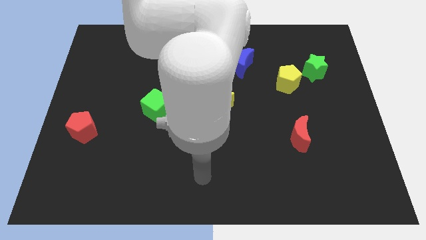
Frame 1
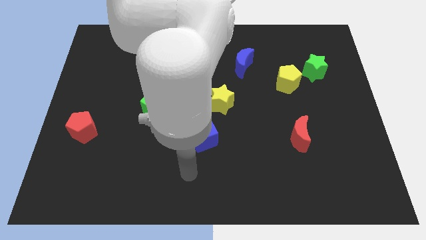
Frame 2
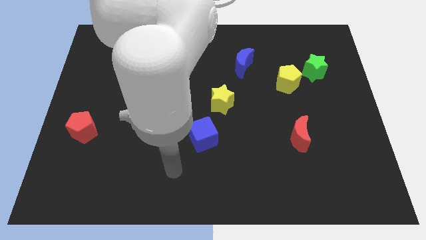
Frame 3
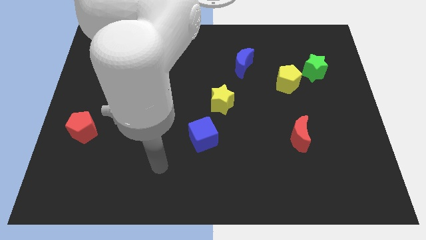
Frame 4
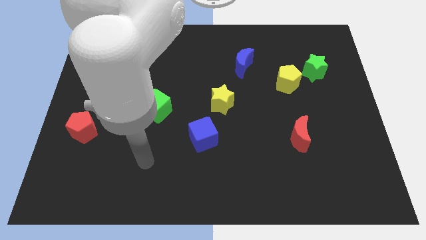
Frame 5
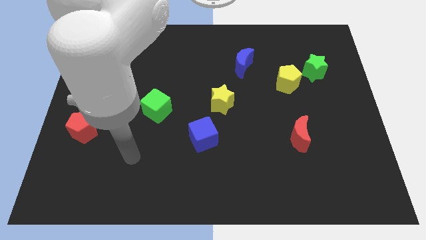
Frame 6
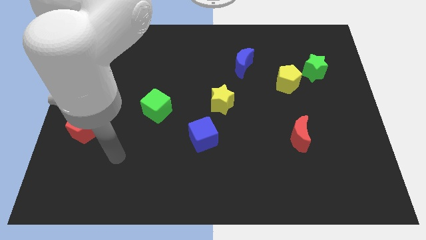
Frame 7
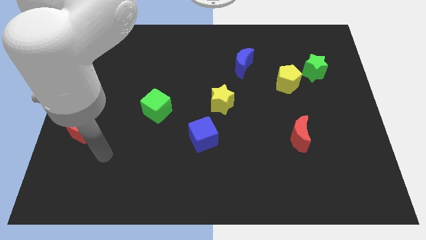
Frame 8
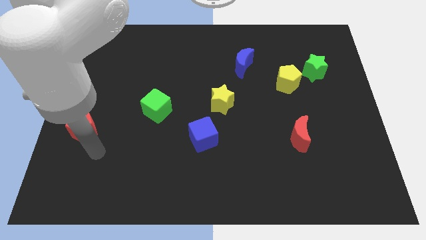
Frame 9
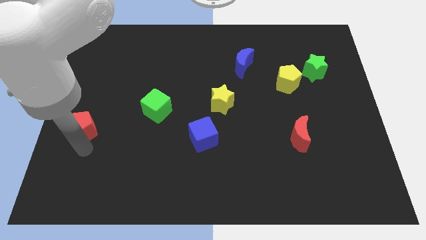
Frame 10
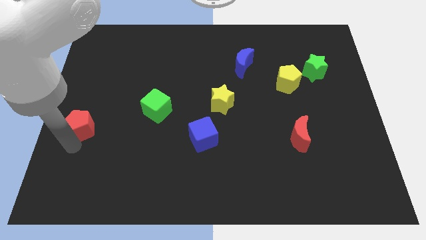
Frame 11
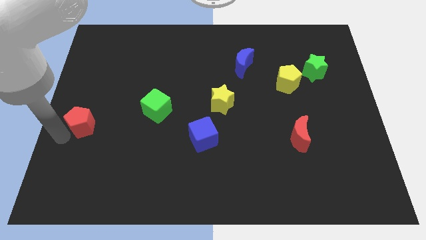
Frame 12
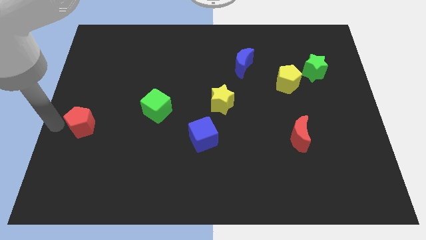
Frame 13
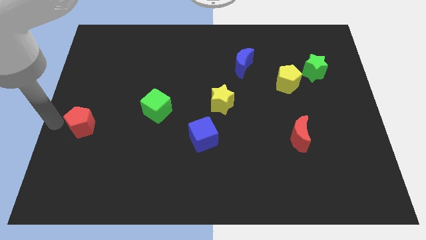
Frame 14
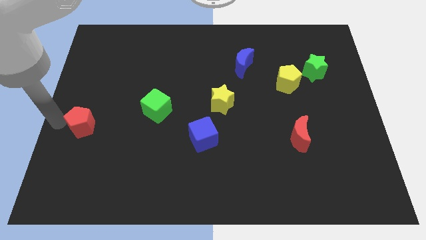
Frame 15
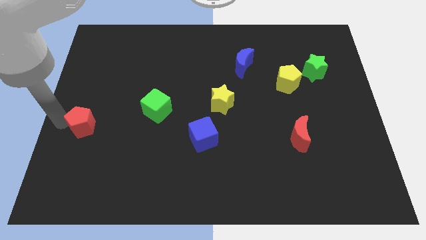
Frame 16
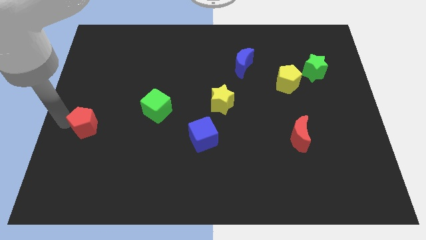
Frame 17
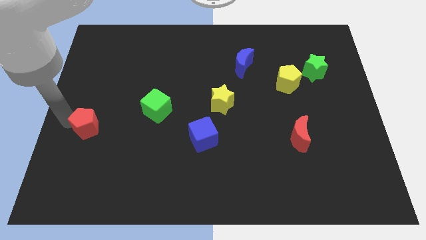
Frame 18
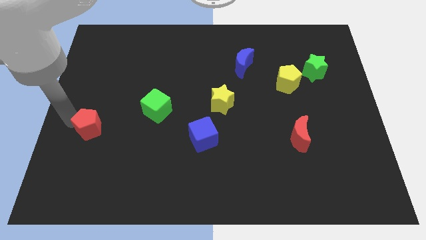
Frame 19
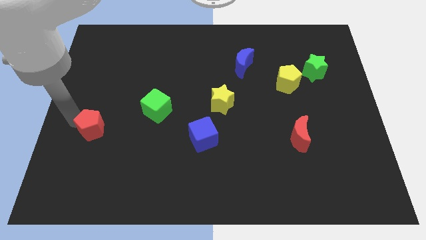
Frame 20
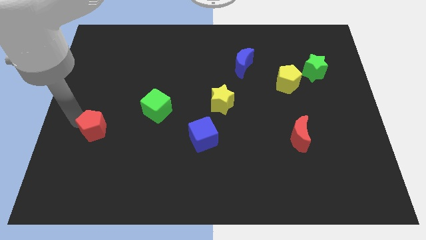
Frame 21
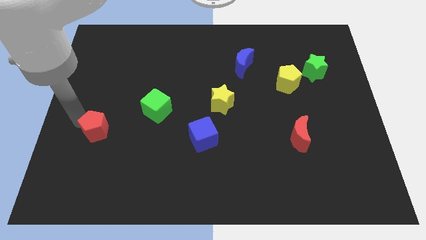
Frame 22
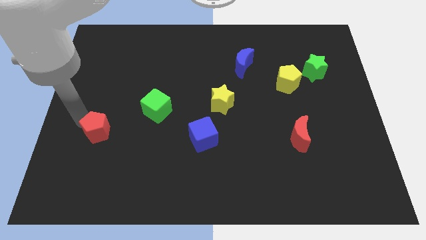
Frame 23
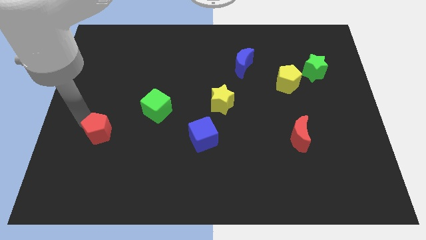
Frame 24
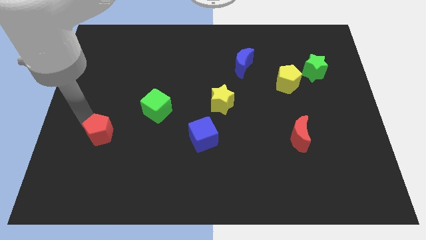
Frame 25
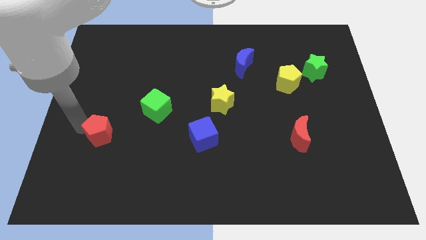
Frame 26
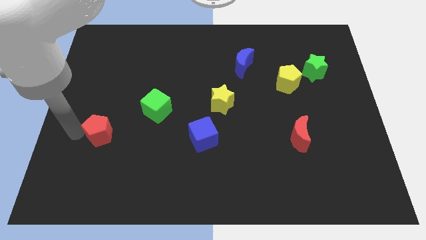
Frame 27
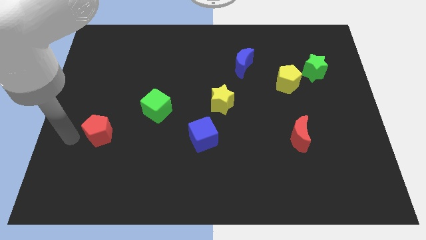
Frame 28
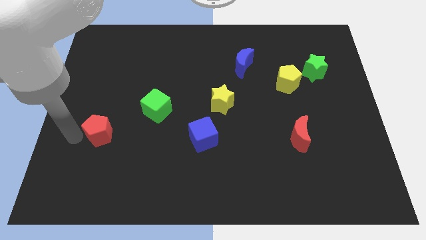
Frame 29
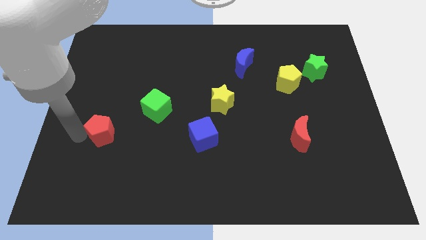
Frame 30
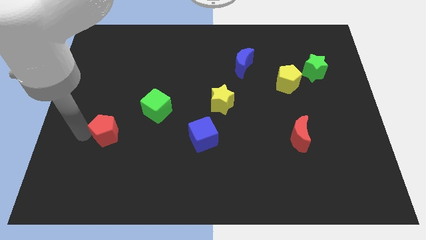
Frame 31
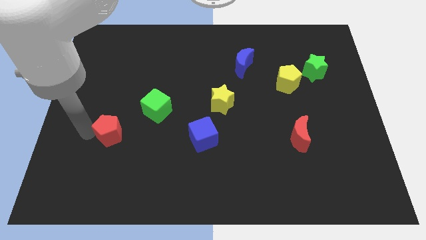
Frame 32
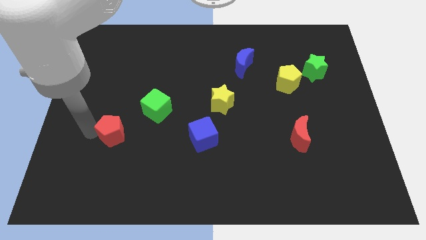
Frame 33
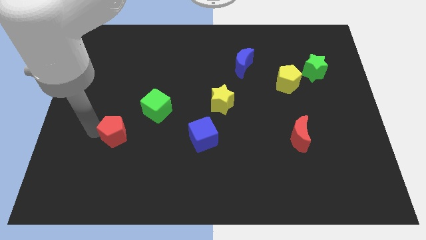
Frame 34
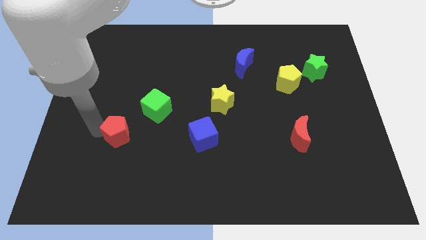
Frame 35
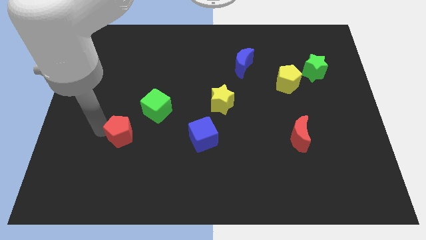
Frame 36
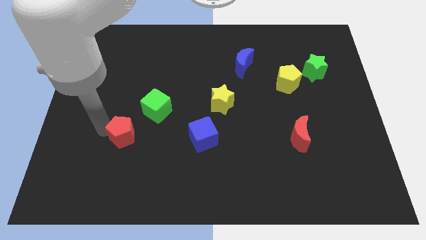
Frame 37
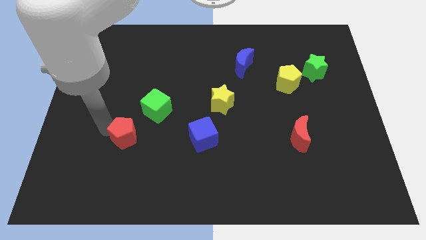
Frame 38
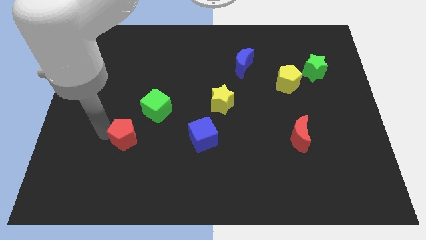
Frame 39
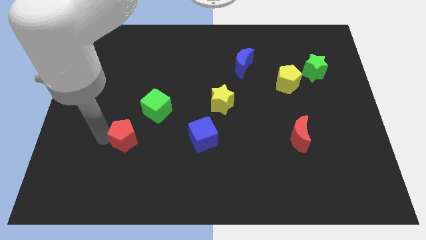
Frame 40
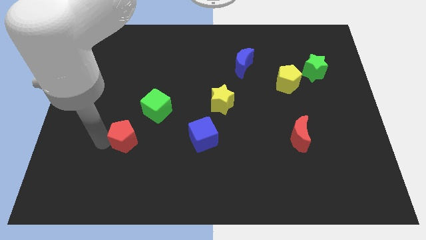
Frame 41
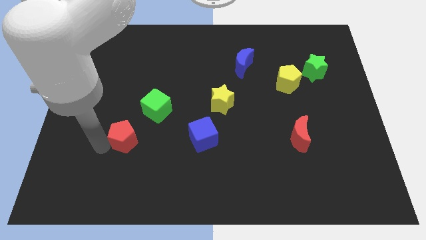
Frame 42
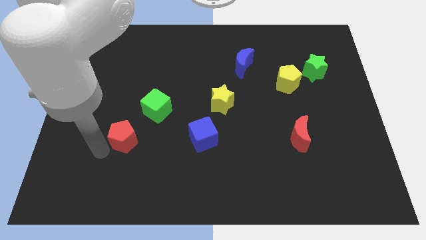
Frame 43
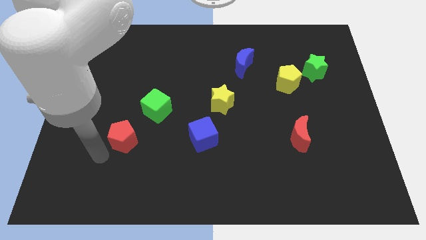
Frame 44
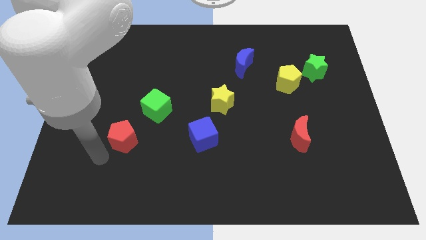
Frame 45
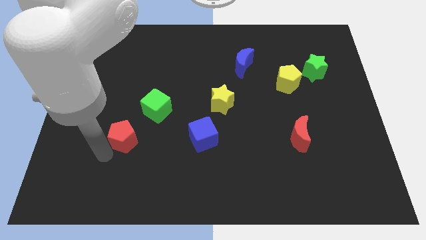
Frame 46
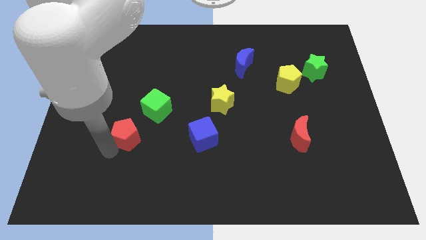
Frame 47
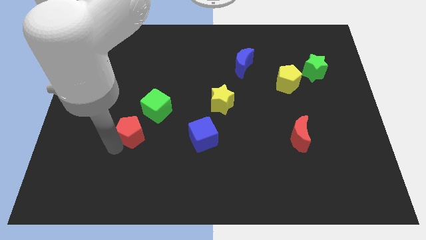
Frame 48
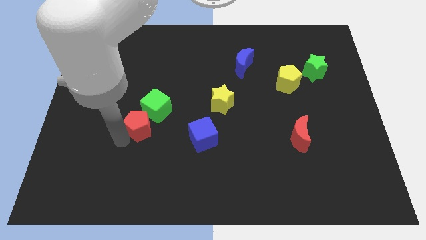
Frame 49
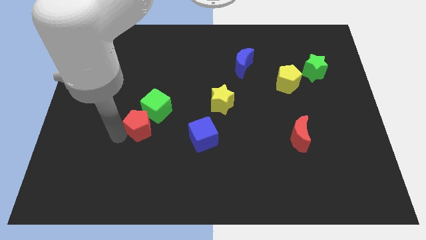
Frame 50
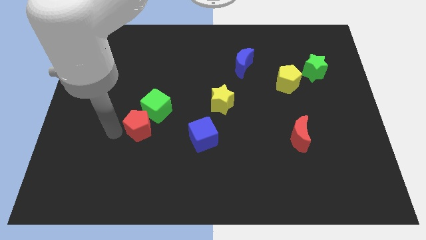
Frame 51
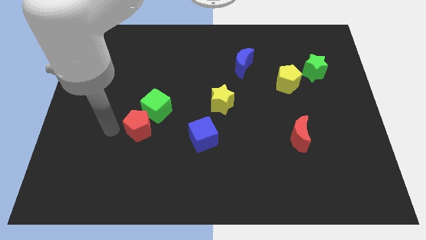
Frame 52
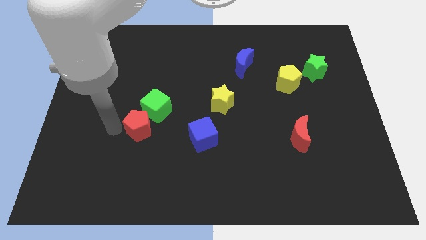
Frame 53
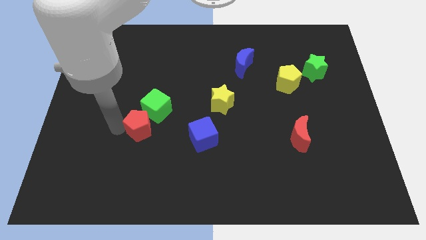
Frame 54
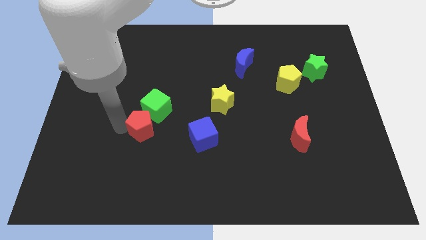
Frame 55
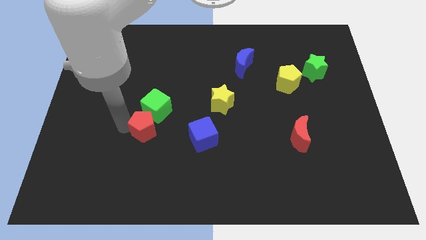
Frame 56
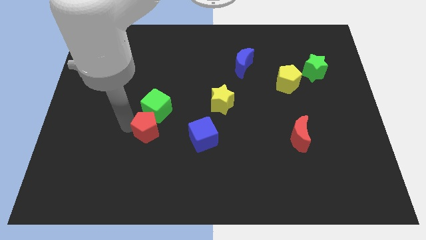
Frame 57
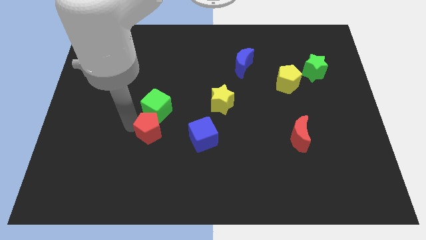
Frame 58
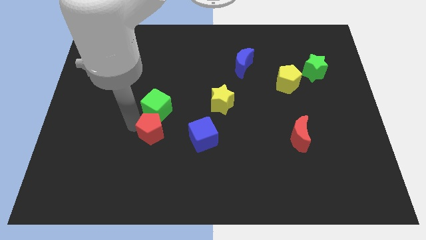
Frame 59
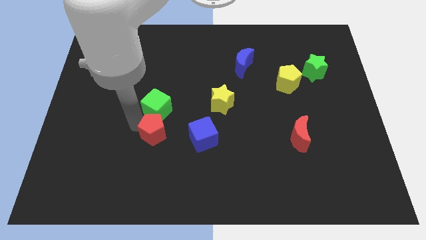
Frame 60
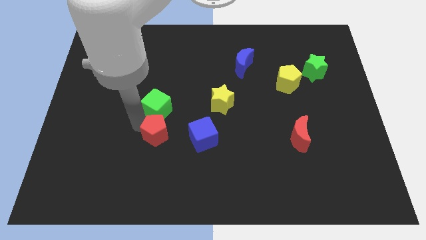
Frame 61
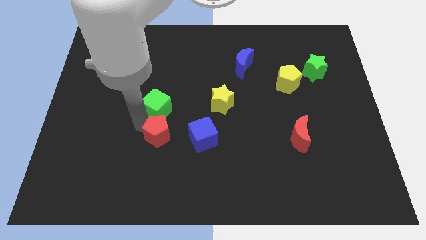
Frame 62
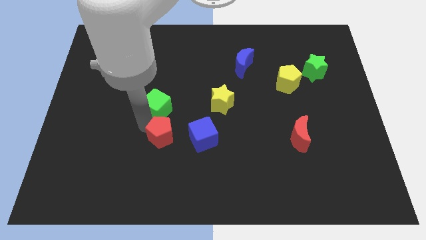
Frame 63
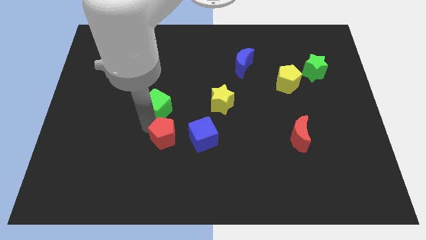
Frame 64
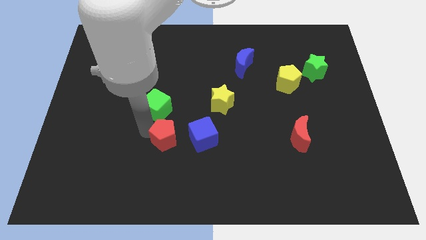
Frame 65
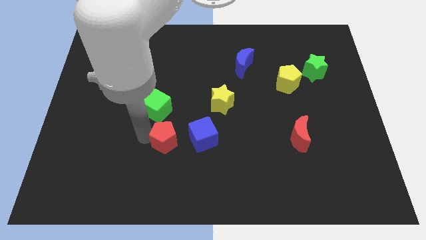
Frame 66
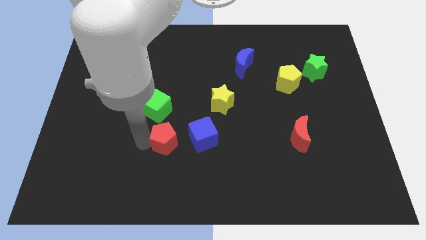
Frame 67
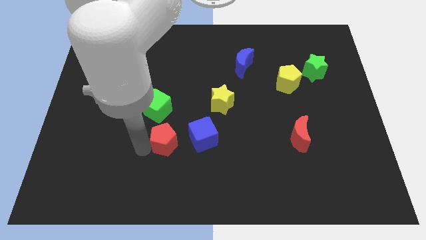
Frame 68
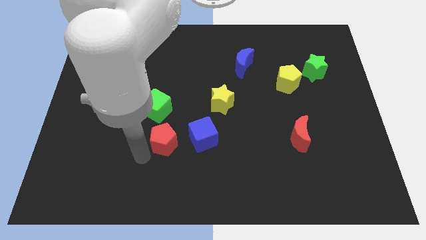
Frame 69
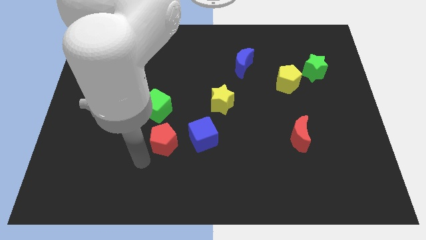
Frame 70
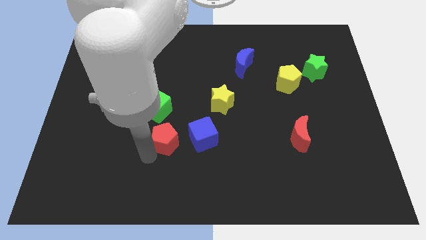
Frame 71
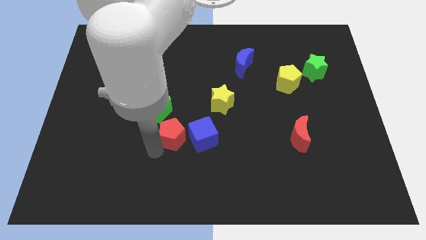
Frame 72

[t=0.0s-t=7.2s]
move the red pentagon right

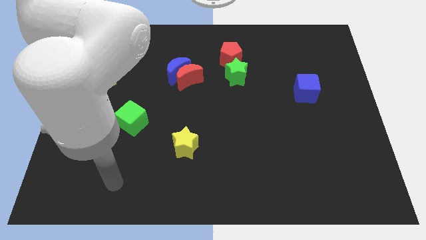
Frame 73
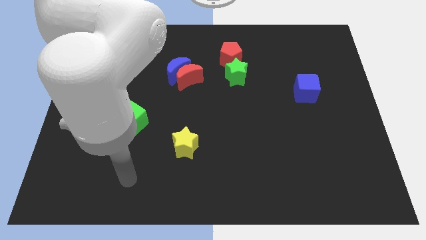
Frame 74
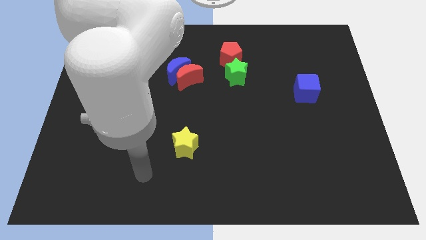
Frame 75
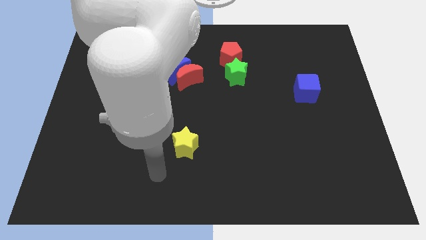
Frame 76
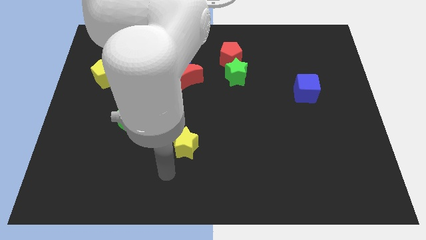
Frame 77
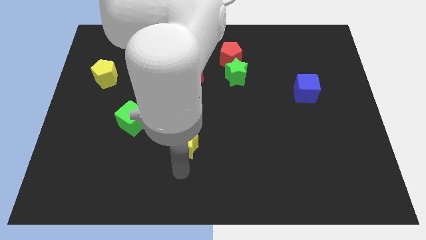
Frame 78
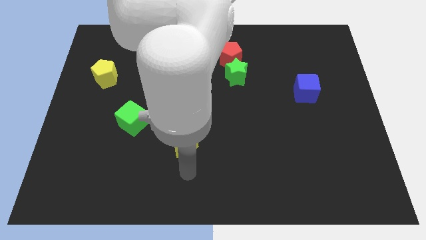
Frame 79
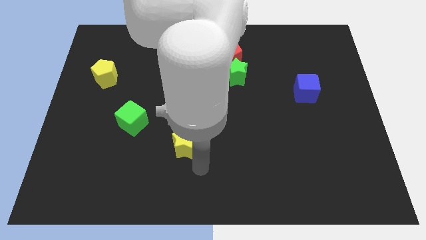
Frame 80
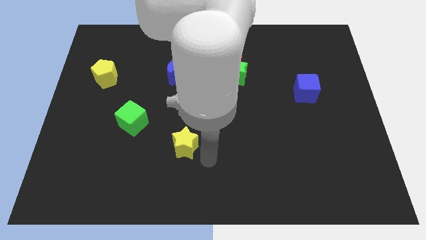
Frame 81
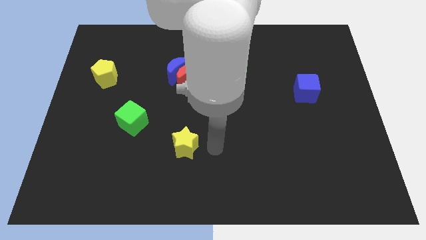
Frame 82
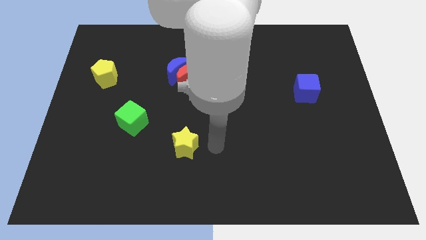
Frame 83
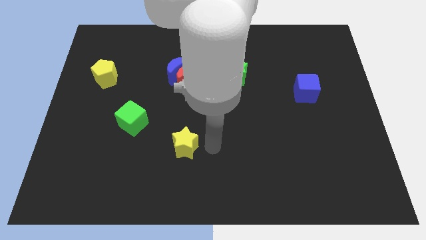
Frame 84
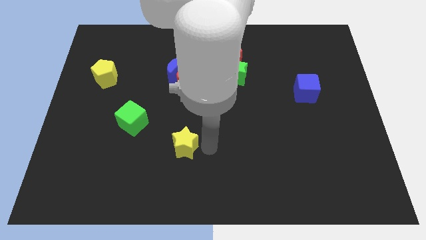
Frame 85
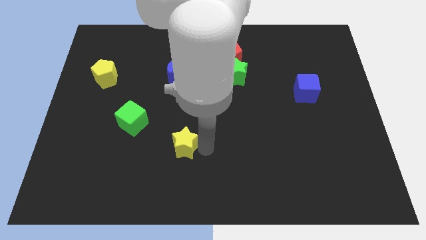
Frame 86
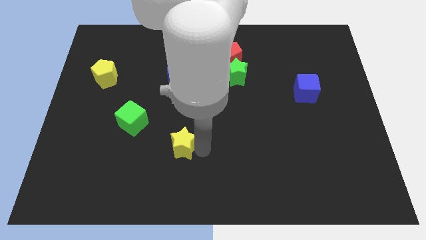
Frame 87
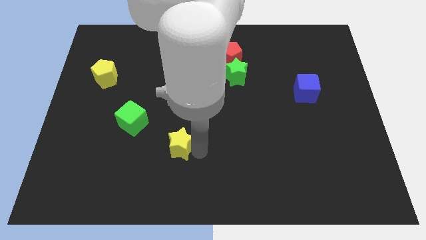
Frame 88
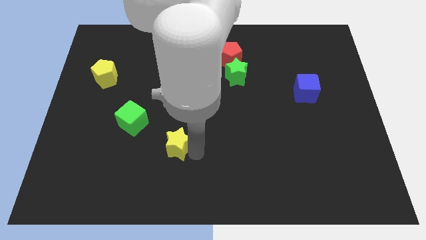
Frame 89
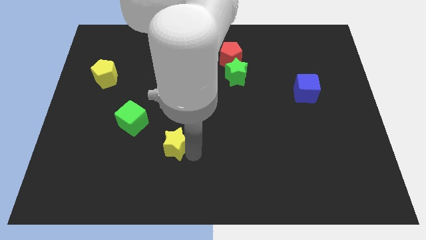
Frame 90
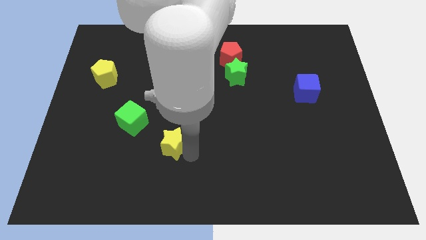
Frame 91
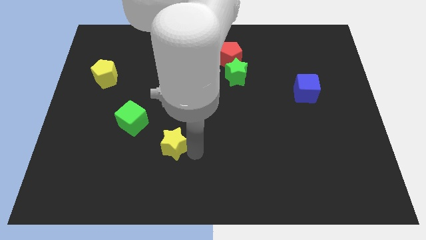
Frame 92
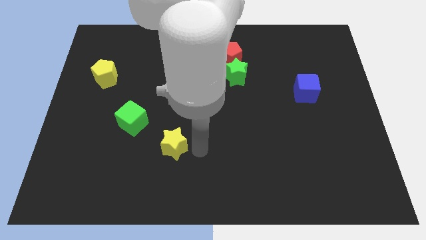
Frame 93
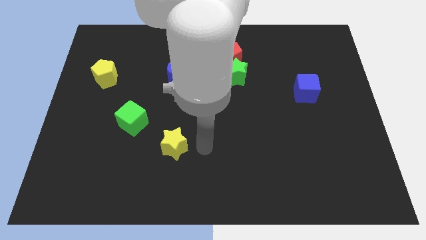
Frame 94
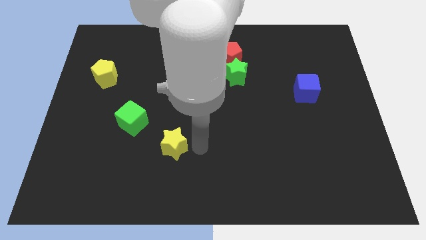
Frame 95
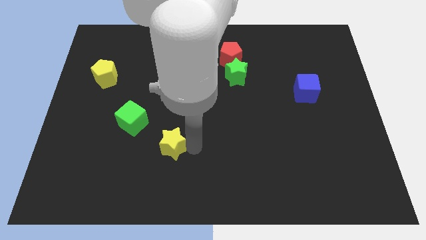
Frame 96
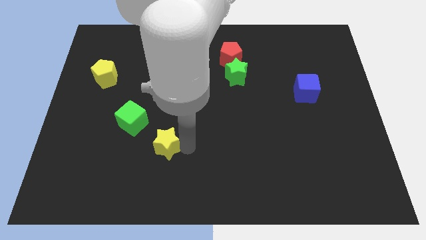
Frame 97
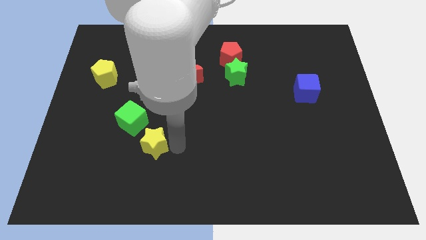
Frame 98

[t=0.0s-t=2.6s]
push the yellow star to the left a bit
